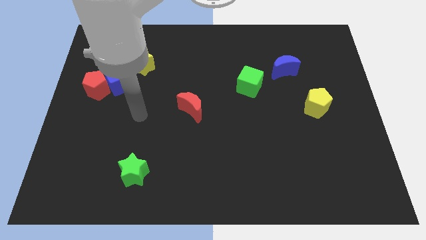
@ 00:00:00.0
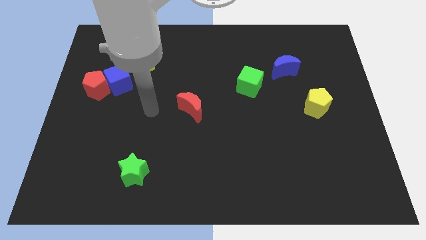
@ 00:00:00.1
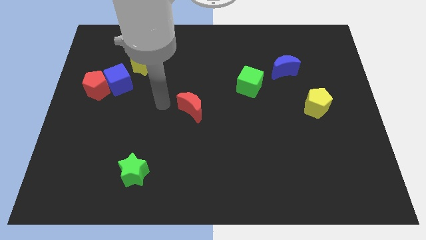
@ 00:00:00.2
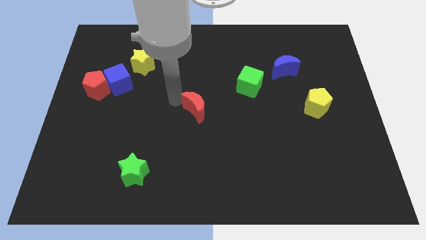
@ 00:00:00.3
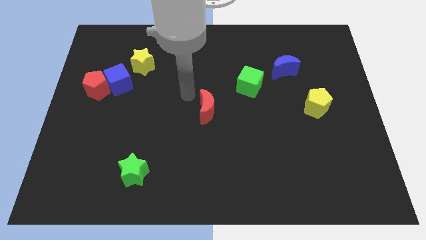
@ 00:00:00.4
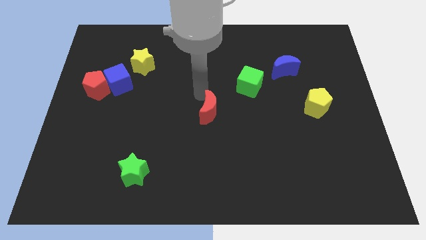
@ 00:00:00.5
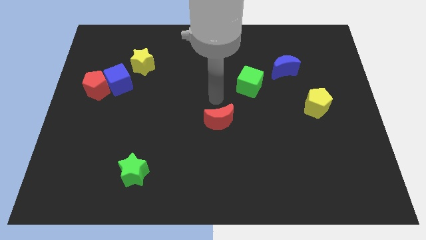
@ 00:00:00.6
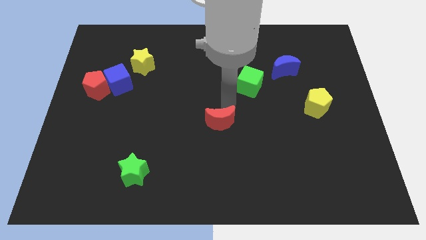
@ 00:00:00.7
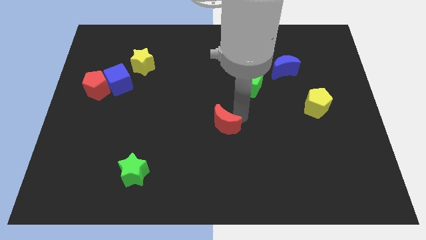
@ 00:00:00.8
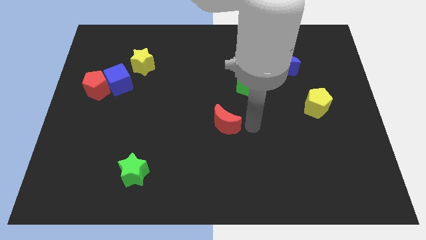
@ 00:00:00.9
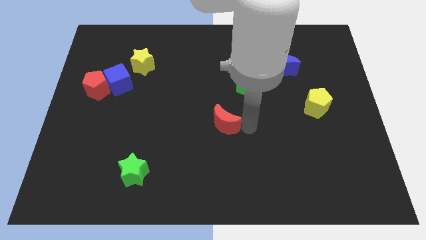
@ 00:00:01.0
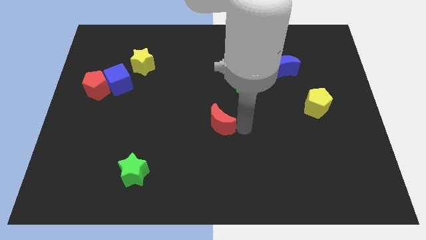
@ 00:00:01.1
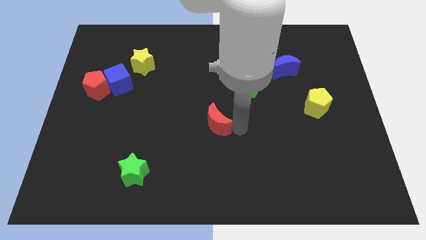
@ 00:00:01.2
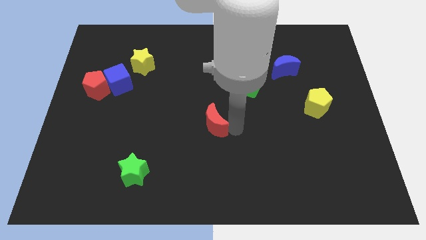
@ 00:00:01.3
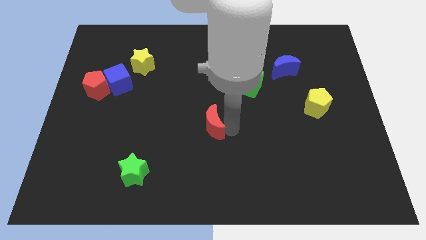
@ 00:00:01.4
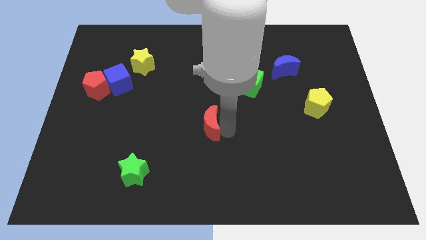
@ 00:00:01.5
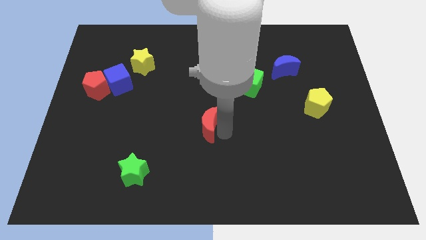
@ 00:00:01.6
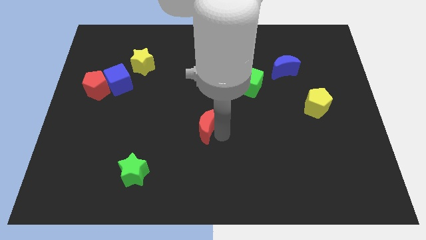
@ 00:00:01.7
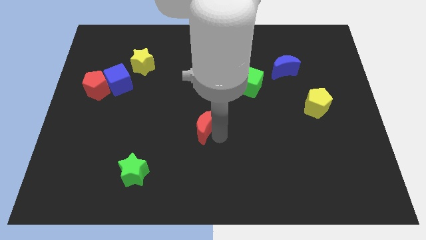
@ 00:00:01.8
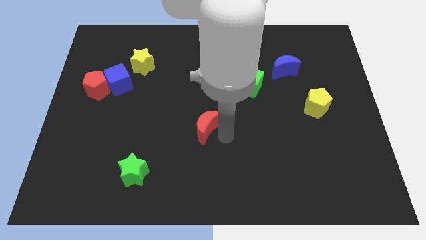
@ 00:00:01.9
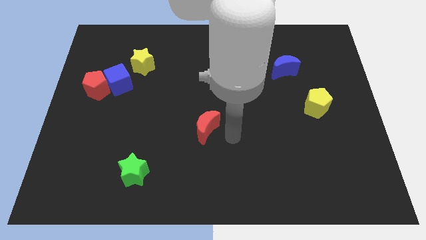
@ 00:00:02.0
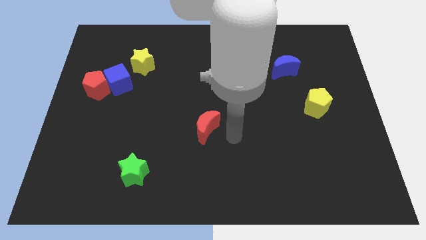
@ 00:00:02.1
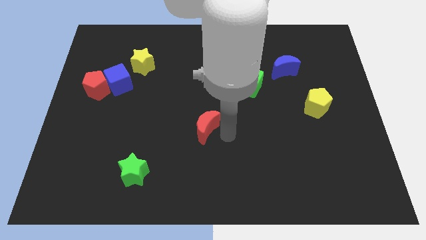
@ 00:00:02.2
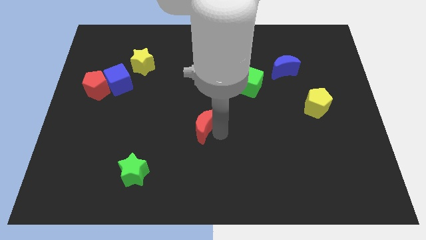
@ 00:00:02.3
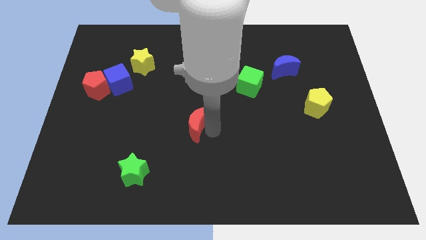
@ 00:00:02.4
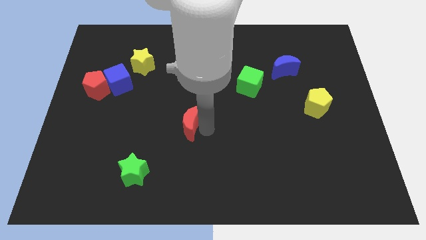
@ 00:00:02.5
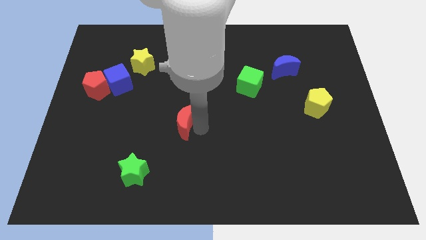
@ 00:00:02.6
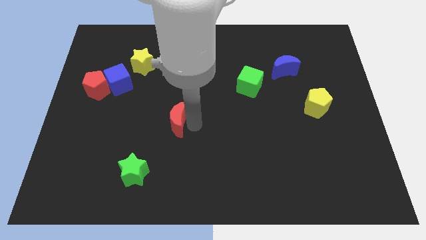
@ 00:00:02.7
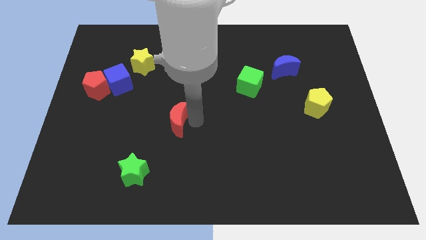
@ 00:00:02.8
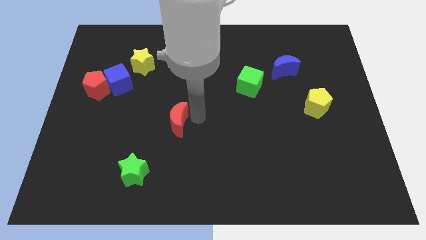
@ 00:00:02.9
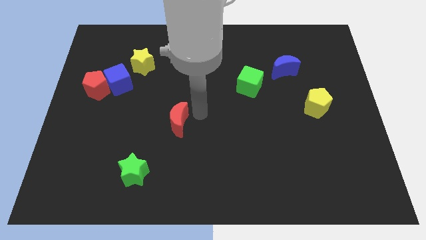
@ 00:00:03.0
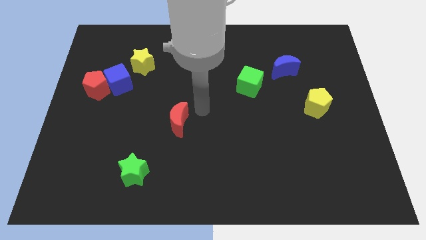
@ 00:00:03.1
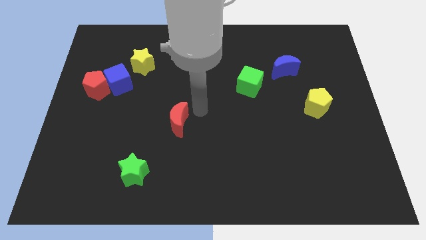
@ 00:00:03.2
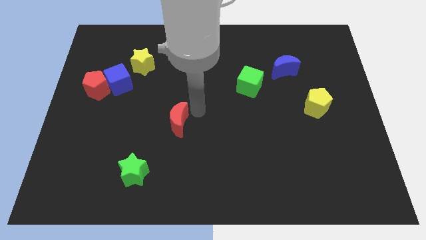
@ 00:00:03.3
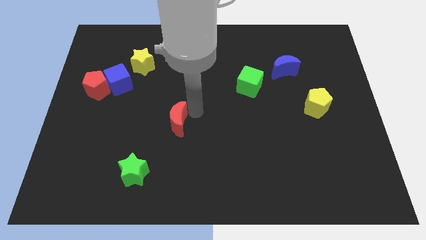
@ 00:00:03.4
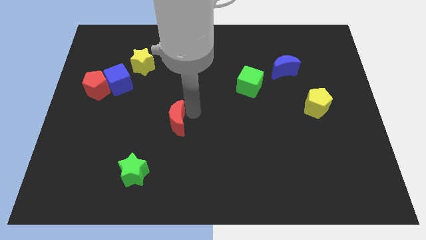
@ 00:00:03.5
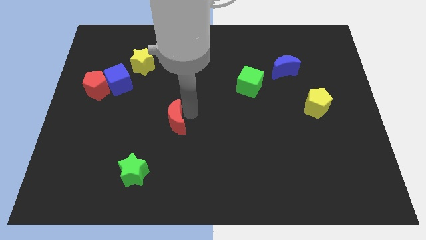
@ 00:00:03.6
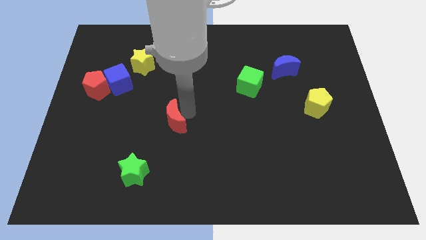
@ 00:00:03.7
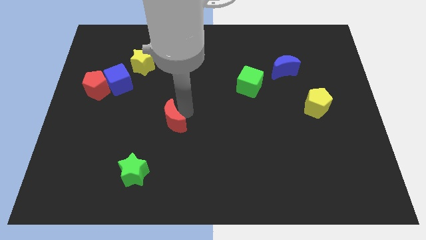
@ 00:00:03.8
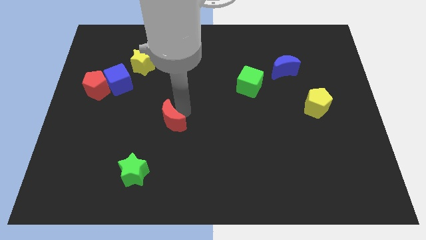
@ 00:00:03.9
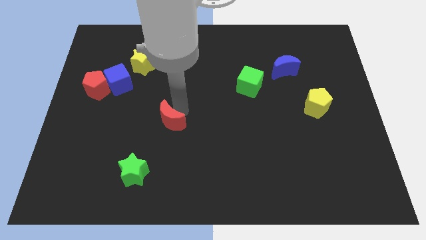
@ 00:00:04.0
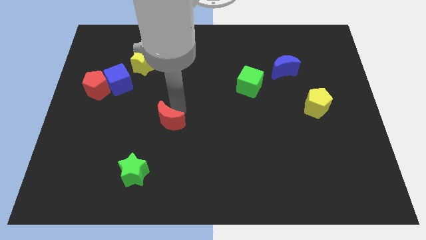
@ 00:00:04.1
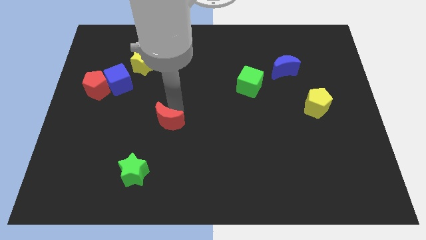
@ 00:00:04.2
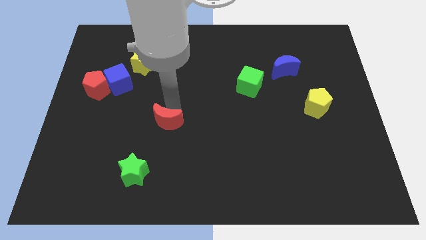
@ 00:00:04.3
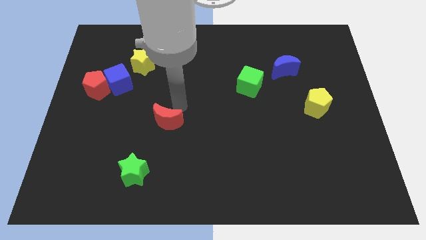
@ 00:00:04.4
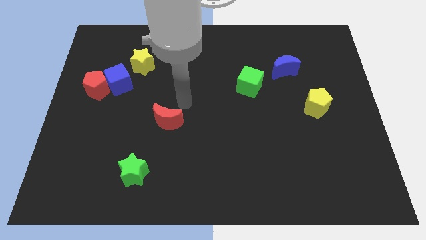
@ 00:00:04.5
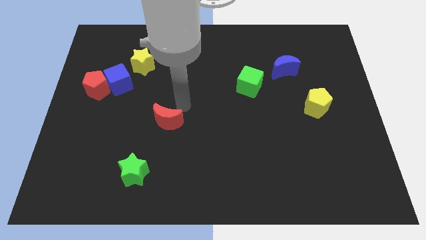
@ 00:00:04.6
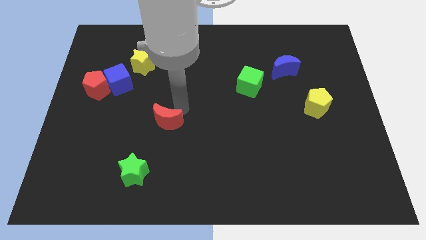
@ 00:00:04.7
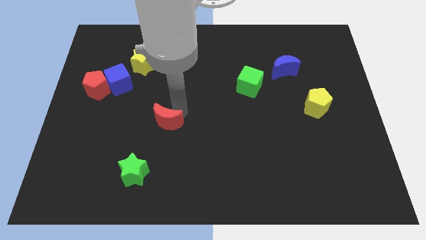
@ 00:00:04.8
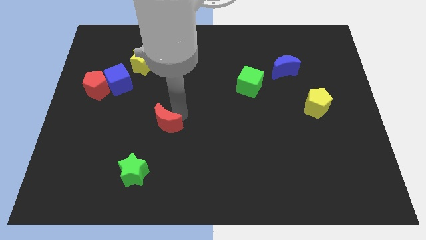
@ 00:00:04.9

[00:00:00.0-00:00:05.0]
slightly move the red moon downwards and to the left diagonally

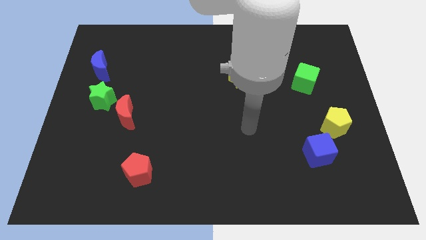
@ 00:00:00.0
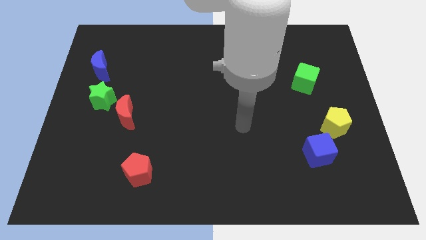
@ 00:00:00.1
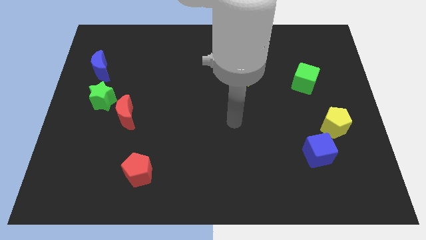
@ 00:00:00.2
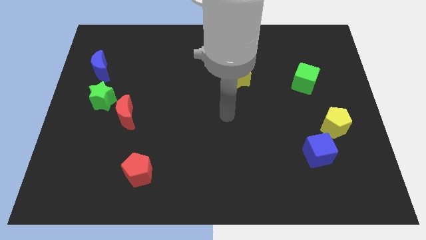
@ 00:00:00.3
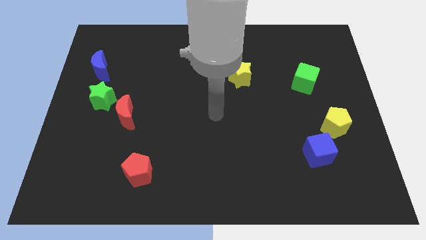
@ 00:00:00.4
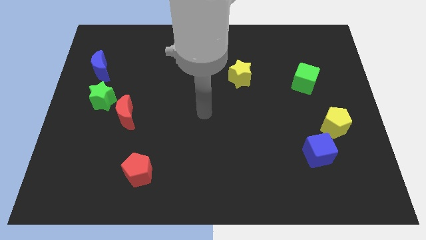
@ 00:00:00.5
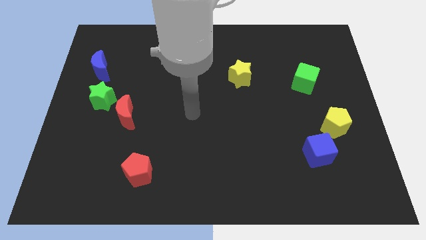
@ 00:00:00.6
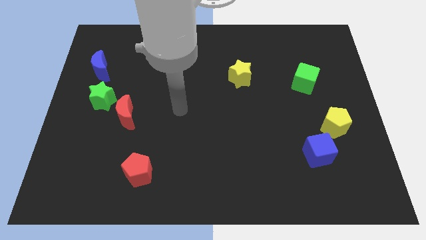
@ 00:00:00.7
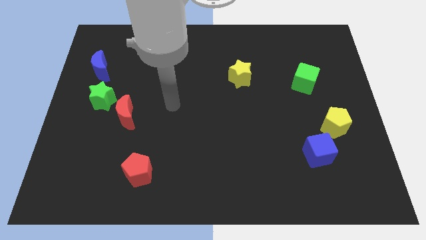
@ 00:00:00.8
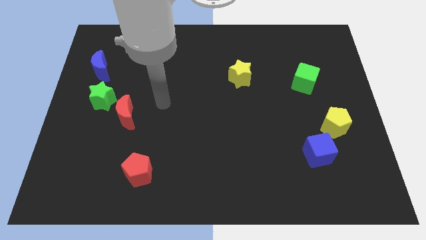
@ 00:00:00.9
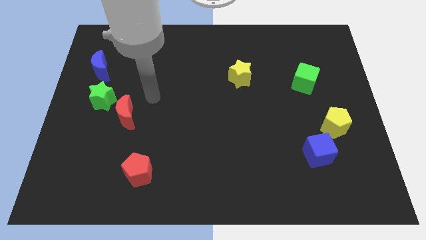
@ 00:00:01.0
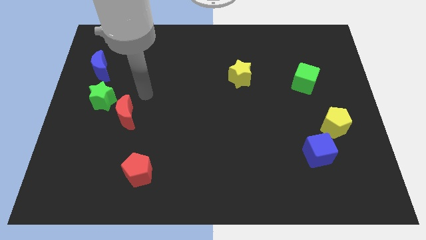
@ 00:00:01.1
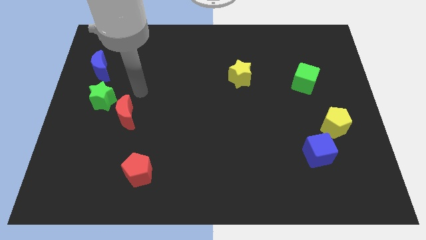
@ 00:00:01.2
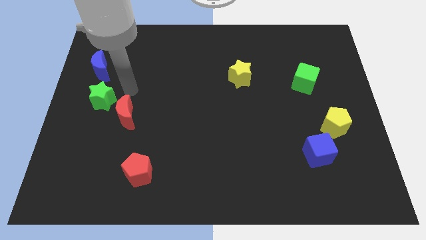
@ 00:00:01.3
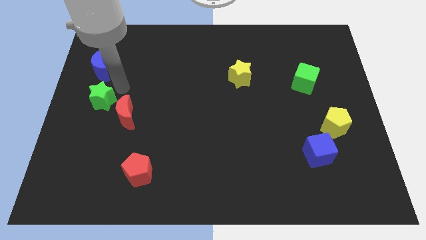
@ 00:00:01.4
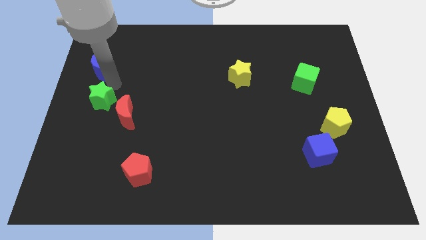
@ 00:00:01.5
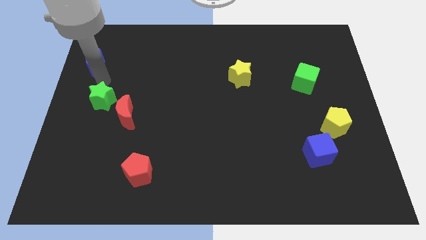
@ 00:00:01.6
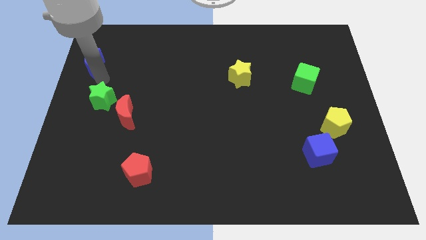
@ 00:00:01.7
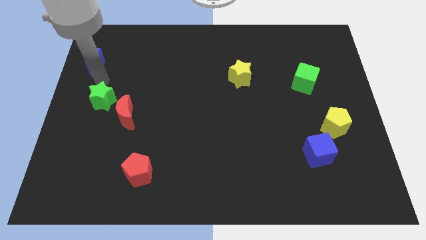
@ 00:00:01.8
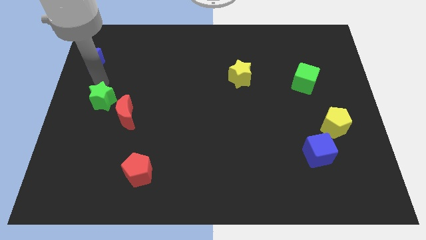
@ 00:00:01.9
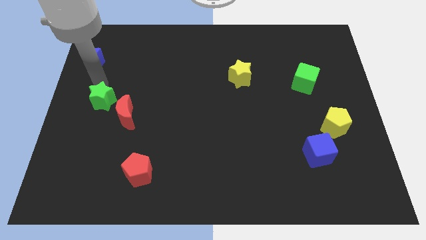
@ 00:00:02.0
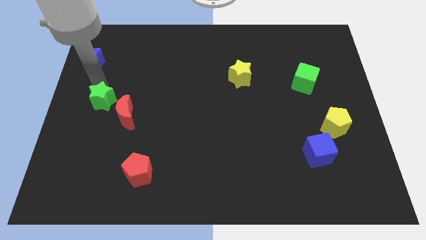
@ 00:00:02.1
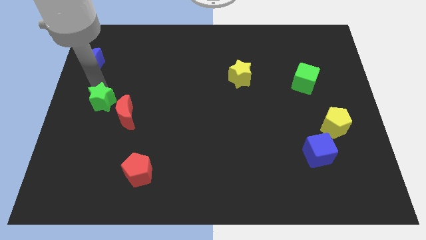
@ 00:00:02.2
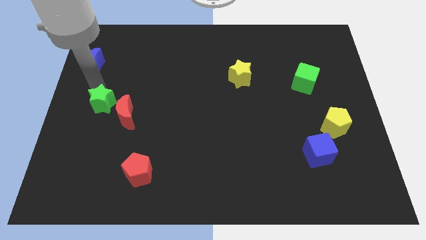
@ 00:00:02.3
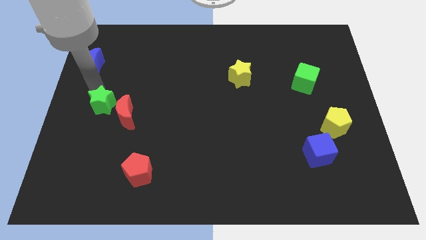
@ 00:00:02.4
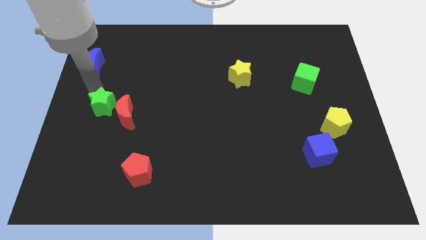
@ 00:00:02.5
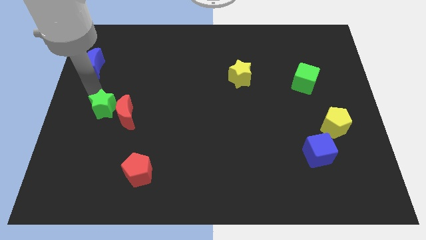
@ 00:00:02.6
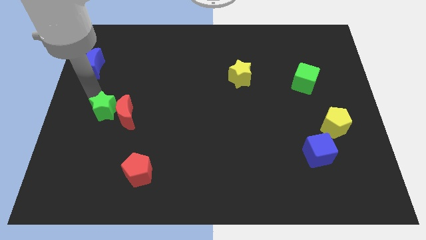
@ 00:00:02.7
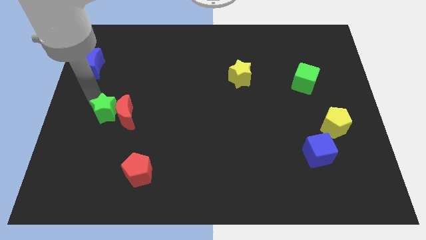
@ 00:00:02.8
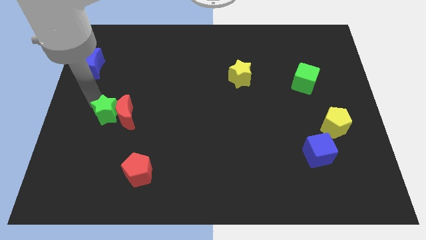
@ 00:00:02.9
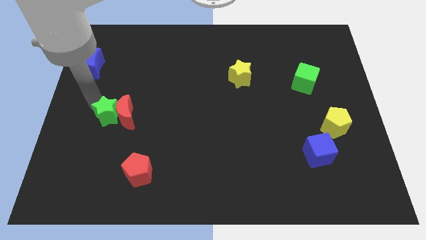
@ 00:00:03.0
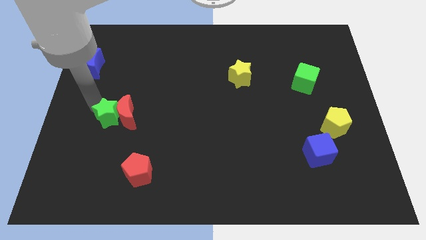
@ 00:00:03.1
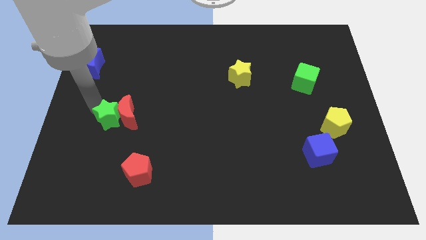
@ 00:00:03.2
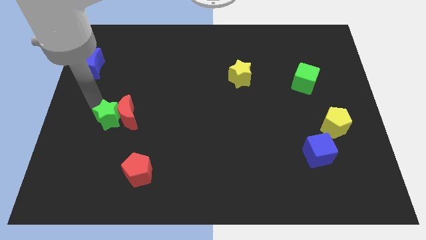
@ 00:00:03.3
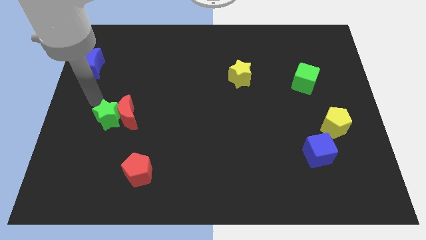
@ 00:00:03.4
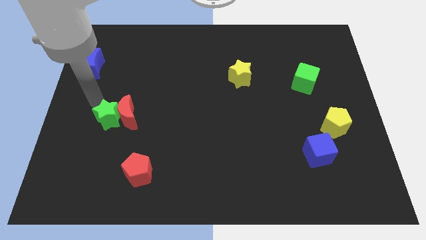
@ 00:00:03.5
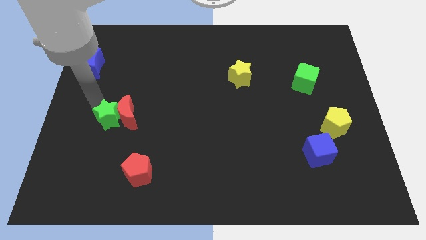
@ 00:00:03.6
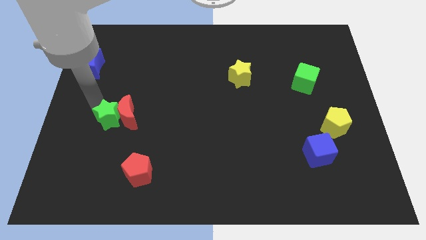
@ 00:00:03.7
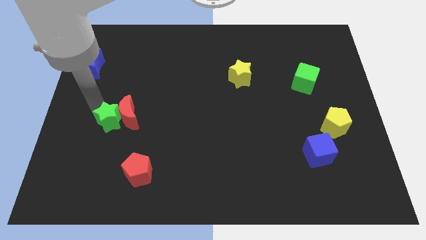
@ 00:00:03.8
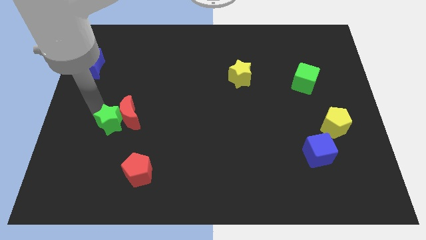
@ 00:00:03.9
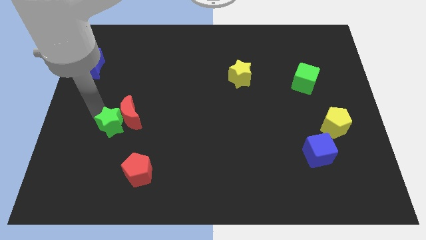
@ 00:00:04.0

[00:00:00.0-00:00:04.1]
slightly push the green star diagonally downwards and right
